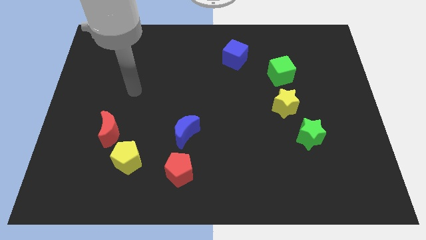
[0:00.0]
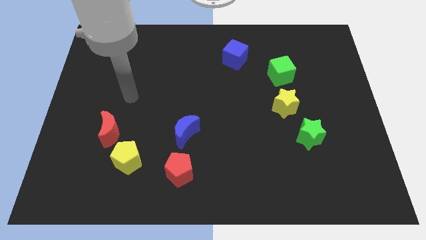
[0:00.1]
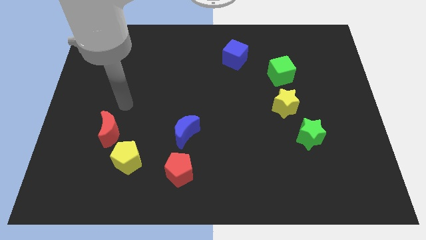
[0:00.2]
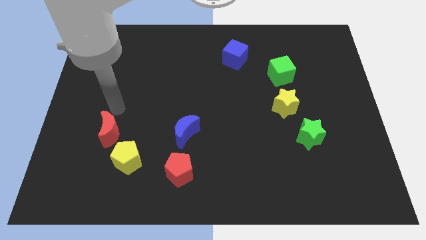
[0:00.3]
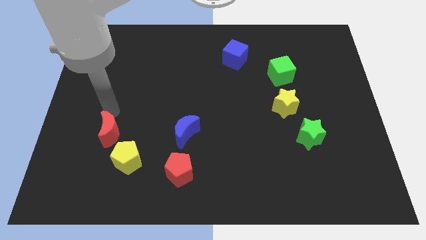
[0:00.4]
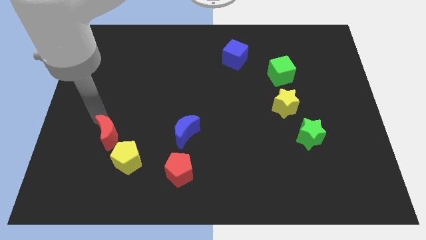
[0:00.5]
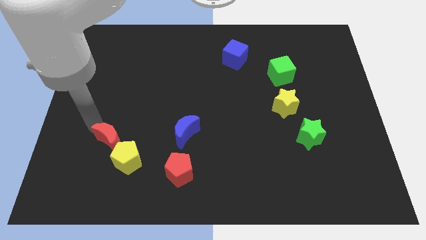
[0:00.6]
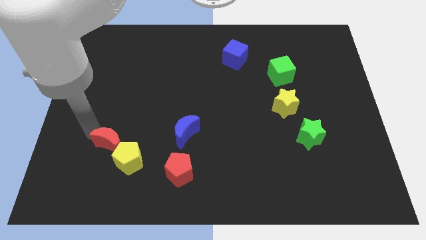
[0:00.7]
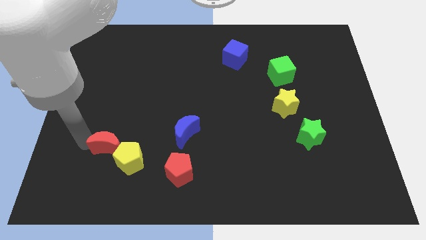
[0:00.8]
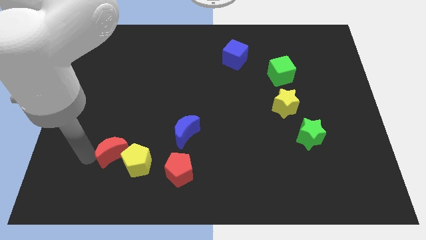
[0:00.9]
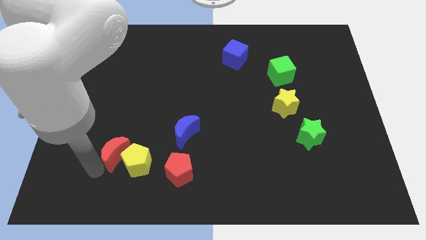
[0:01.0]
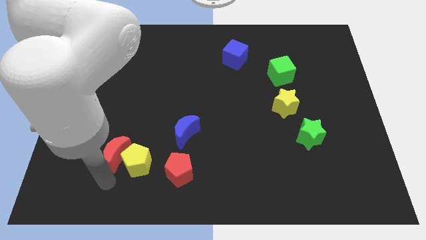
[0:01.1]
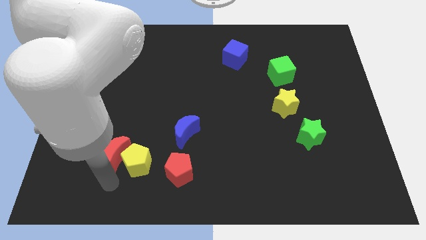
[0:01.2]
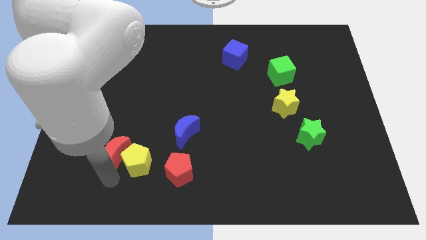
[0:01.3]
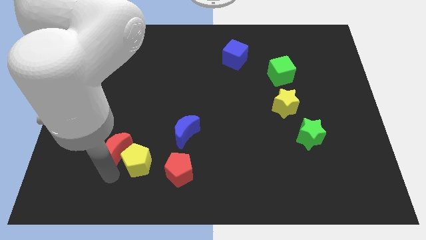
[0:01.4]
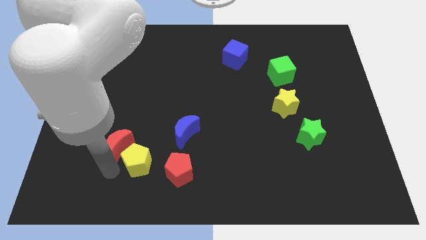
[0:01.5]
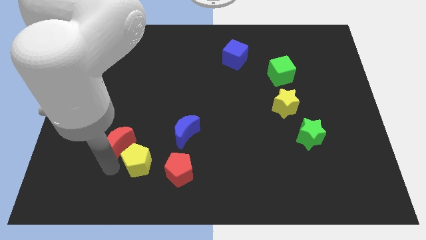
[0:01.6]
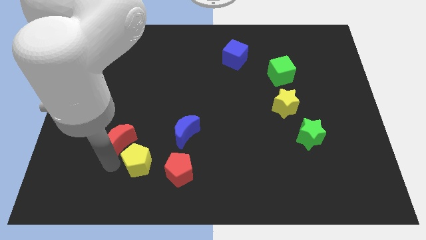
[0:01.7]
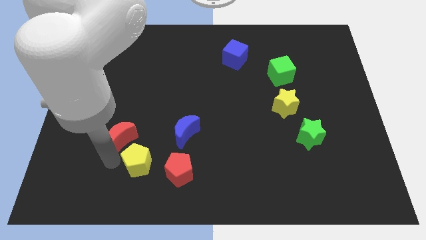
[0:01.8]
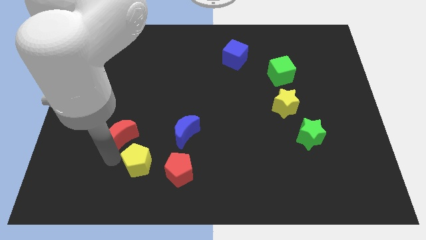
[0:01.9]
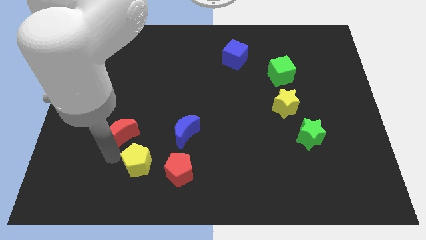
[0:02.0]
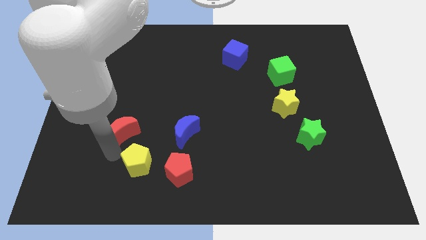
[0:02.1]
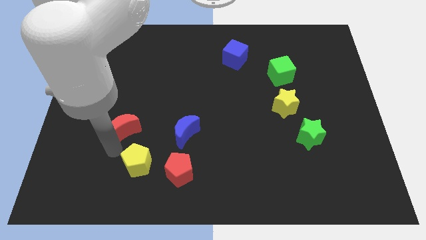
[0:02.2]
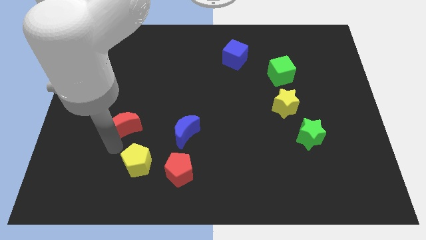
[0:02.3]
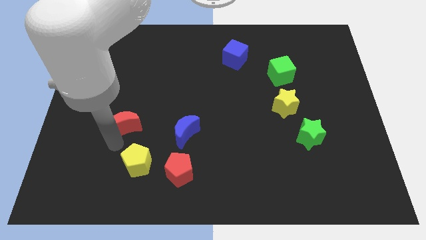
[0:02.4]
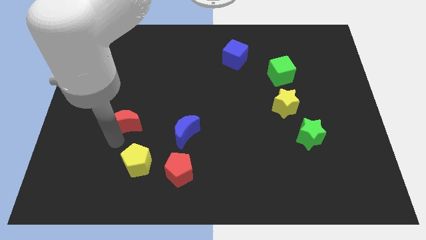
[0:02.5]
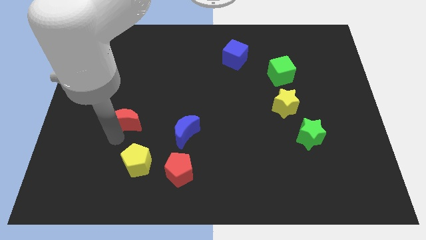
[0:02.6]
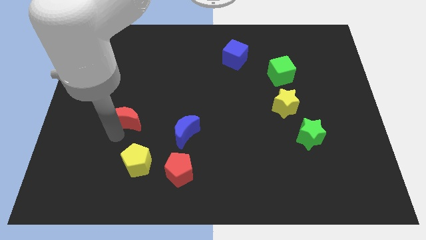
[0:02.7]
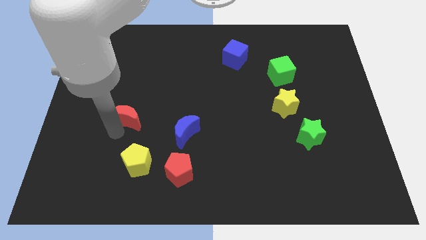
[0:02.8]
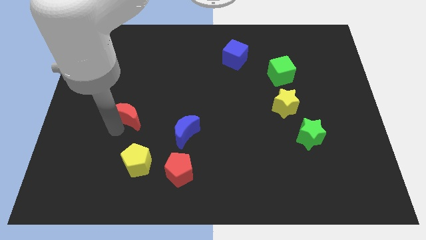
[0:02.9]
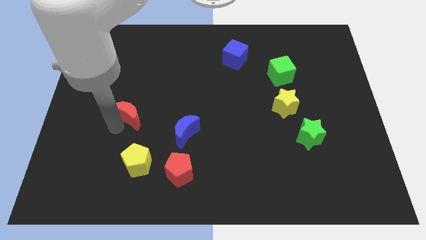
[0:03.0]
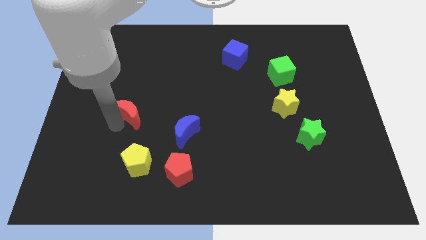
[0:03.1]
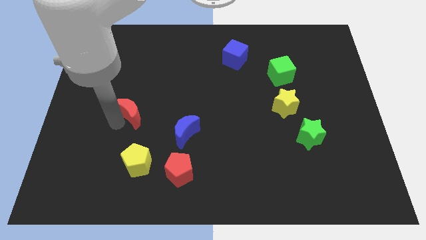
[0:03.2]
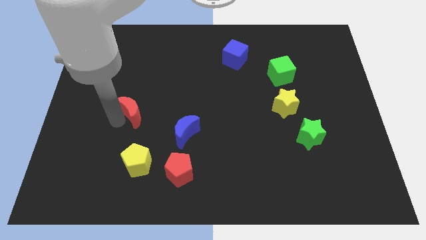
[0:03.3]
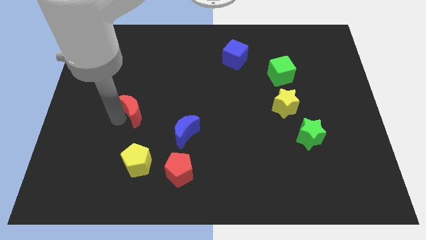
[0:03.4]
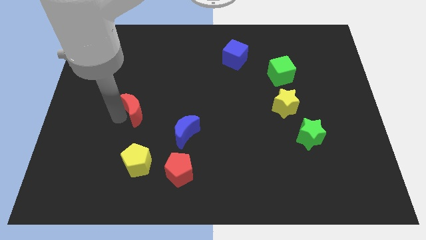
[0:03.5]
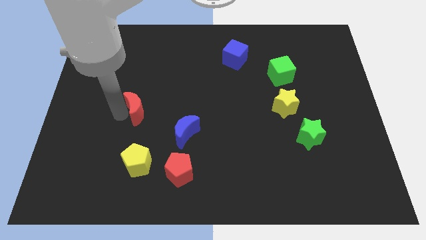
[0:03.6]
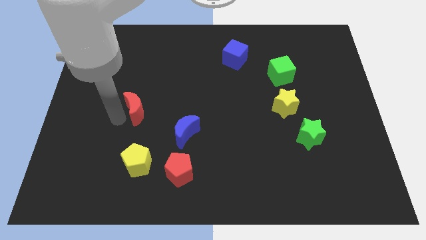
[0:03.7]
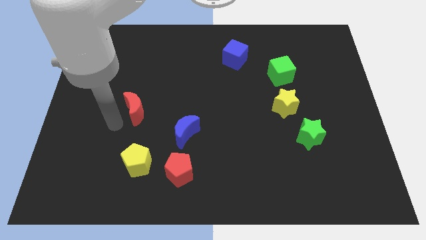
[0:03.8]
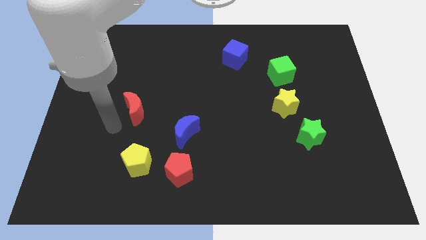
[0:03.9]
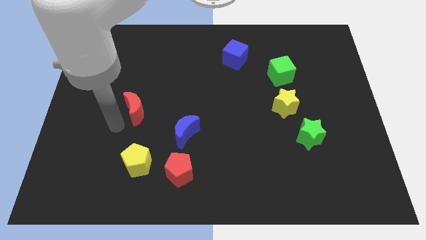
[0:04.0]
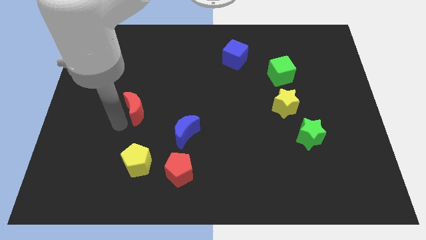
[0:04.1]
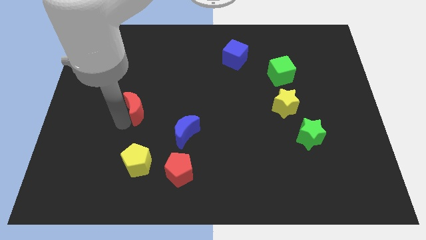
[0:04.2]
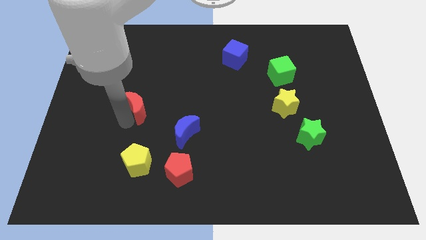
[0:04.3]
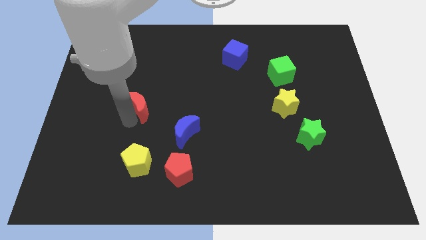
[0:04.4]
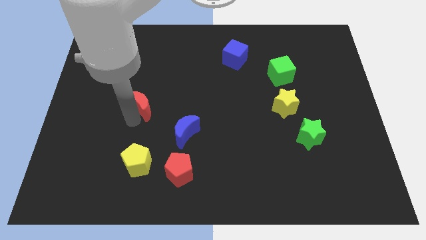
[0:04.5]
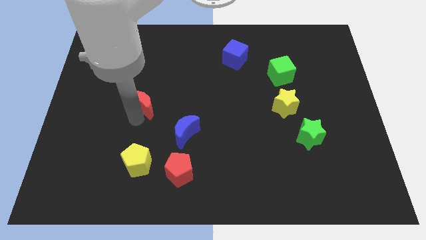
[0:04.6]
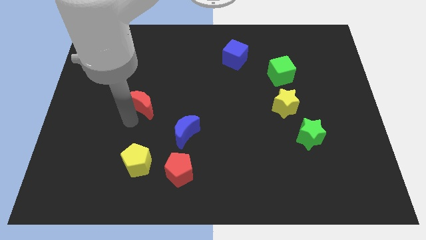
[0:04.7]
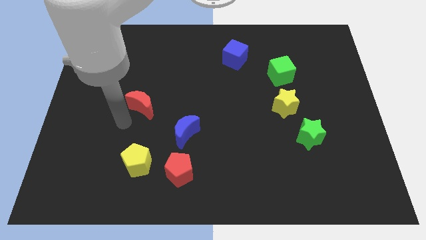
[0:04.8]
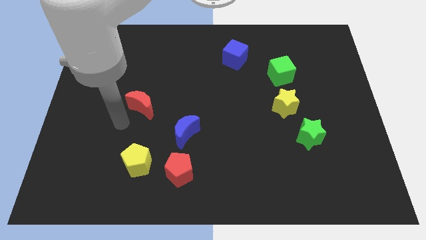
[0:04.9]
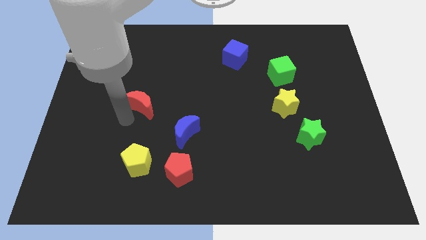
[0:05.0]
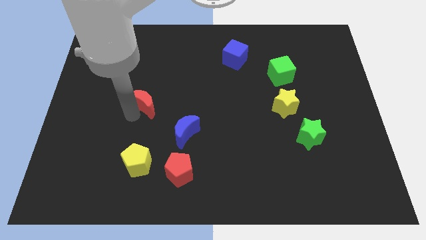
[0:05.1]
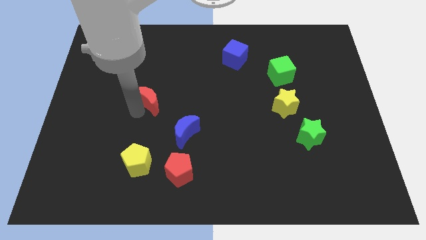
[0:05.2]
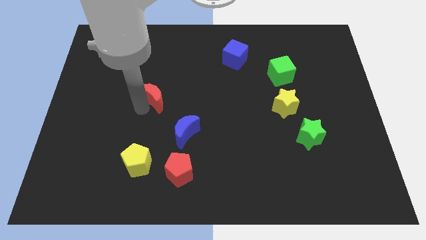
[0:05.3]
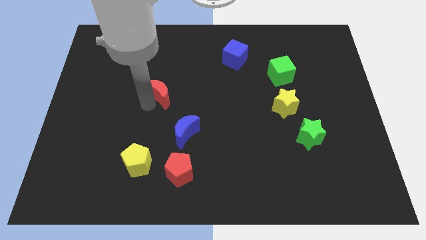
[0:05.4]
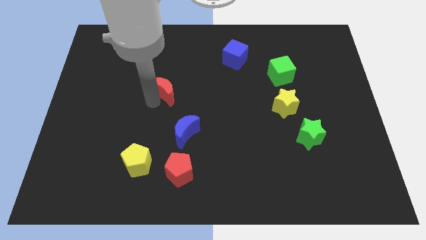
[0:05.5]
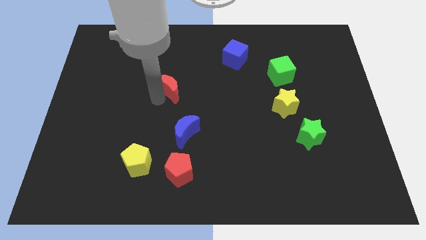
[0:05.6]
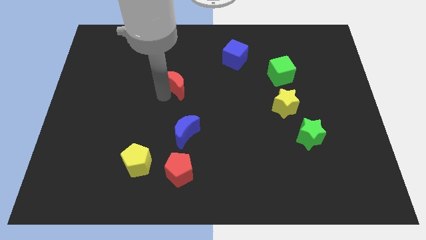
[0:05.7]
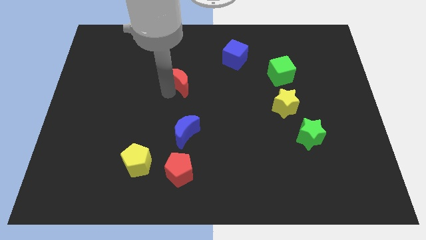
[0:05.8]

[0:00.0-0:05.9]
push the red moon up and right diagonally

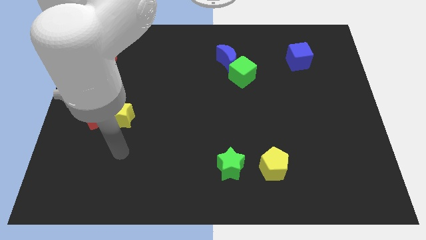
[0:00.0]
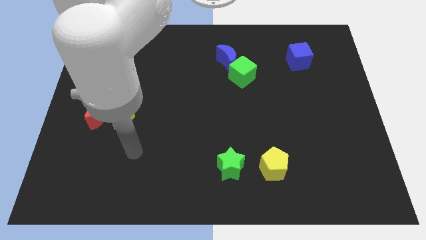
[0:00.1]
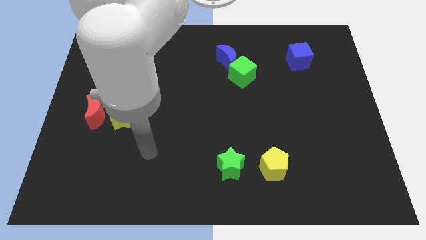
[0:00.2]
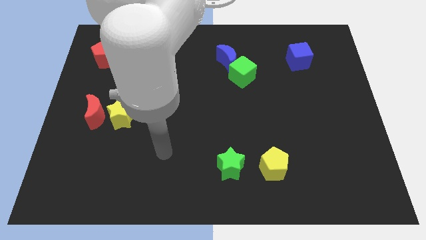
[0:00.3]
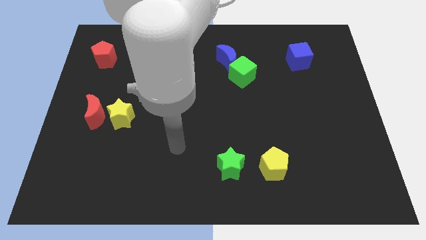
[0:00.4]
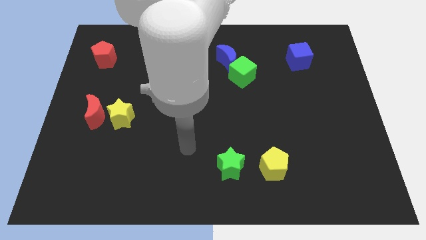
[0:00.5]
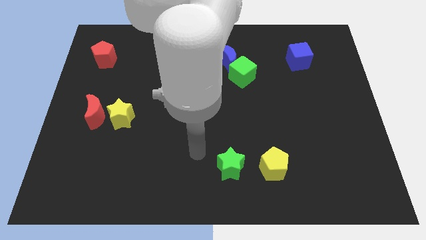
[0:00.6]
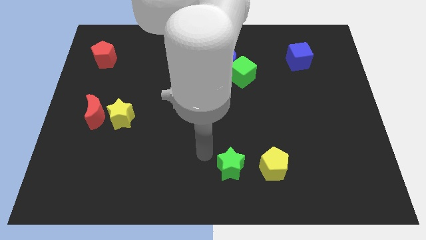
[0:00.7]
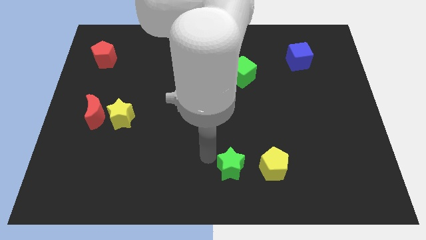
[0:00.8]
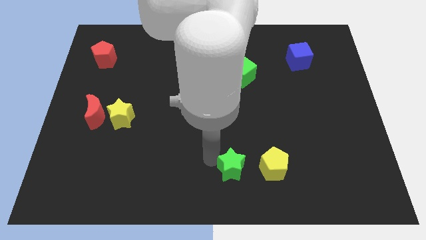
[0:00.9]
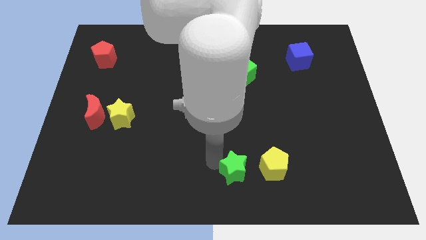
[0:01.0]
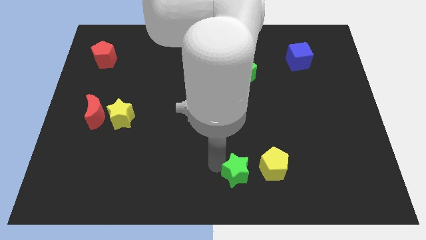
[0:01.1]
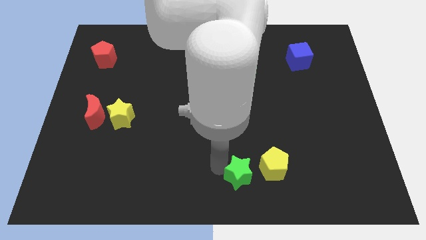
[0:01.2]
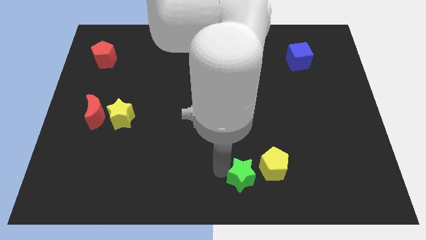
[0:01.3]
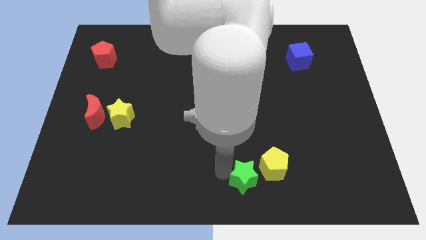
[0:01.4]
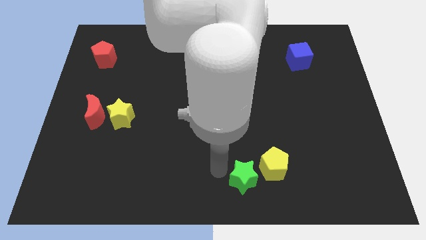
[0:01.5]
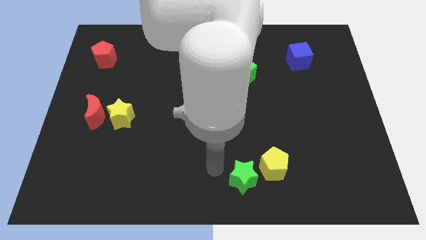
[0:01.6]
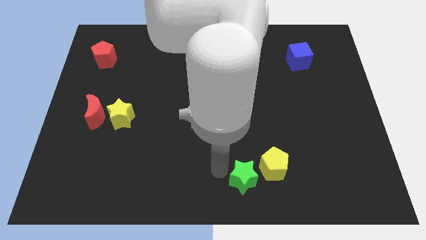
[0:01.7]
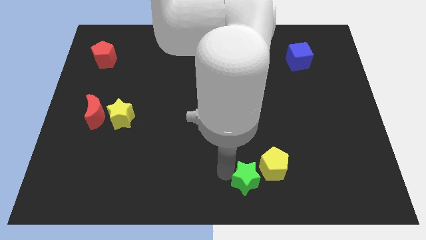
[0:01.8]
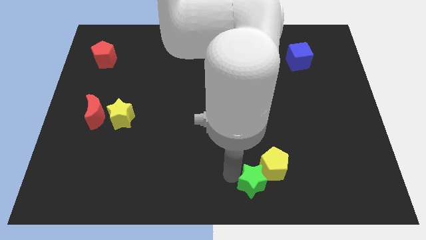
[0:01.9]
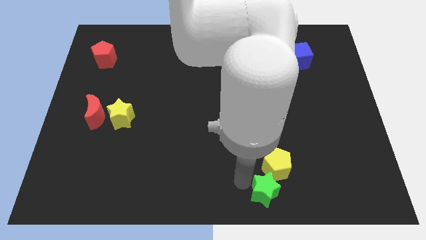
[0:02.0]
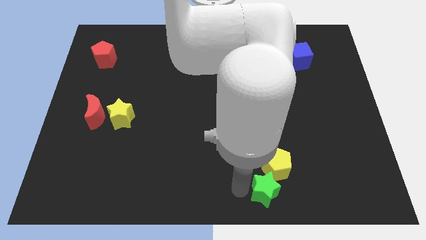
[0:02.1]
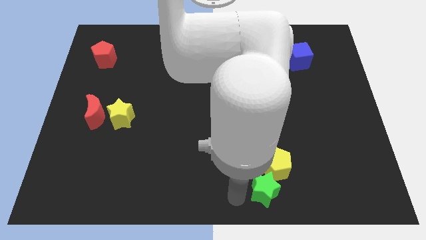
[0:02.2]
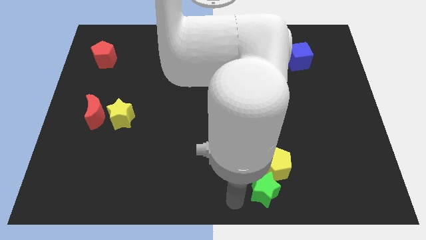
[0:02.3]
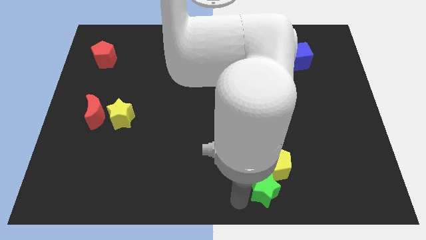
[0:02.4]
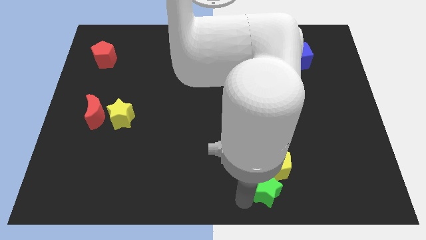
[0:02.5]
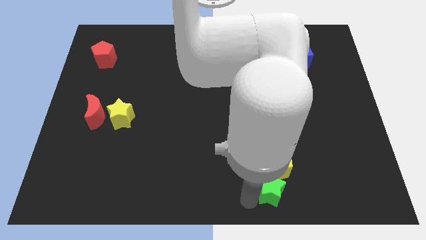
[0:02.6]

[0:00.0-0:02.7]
slide the green star a little bit right
